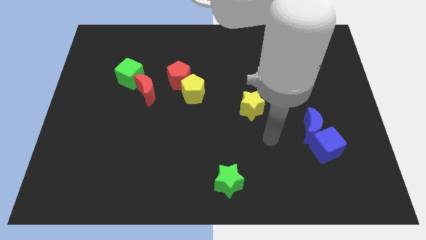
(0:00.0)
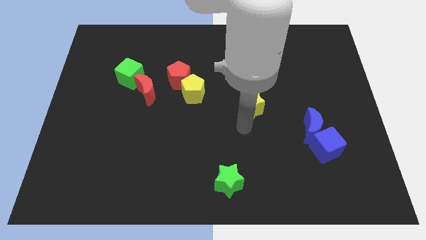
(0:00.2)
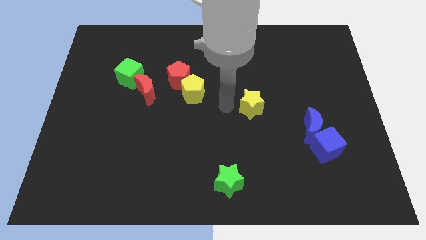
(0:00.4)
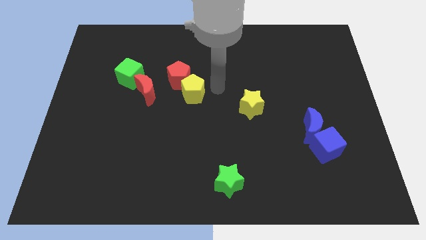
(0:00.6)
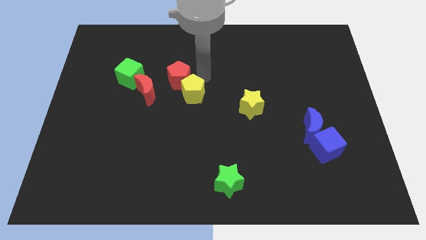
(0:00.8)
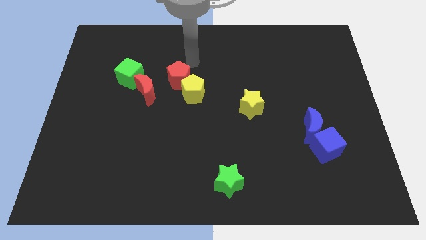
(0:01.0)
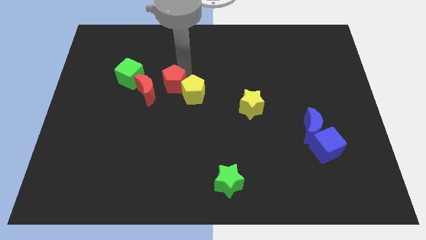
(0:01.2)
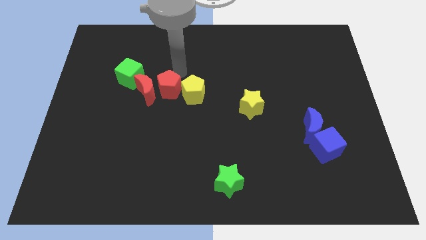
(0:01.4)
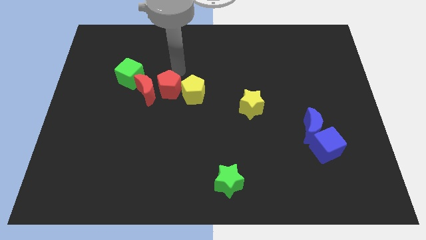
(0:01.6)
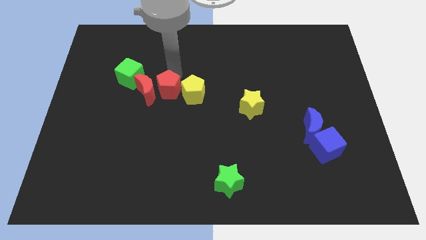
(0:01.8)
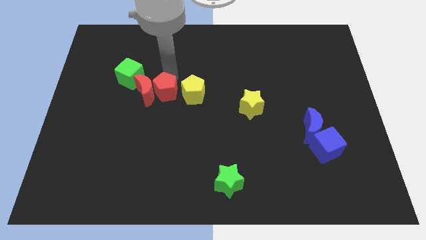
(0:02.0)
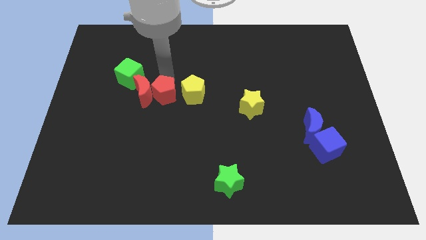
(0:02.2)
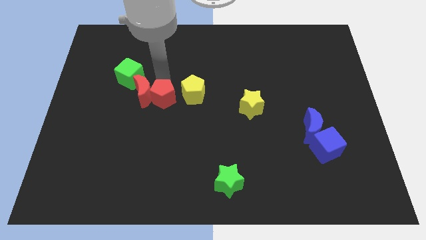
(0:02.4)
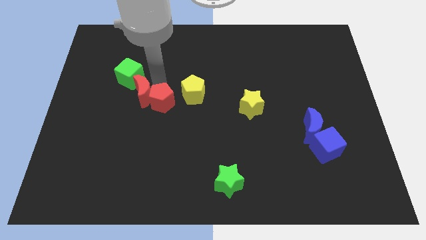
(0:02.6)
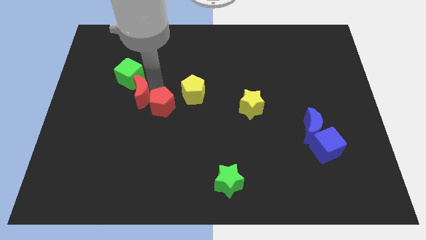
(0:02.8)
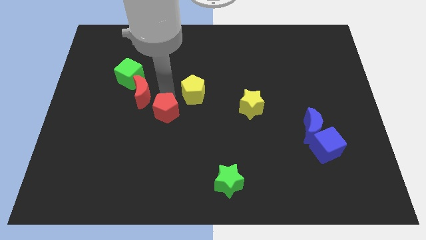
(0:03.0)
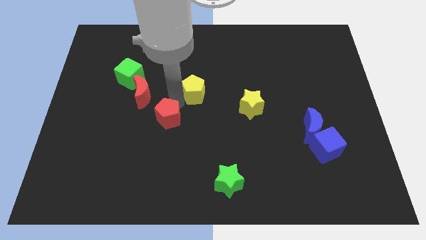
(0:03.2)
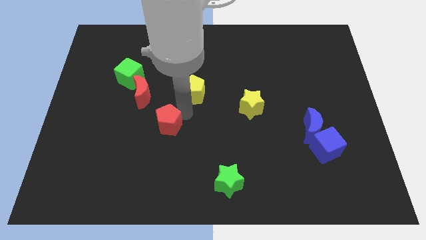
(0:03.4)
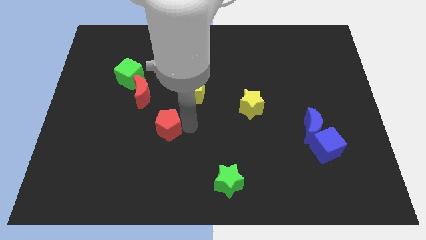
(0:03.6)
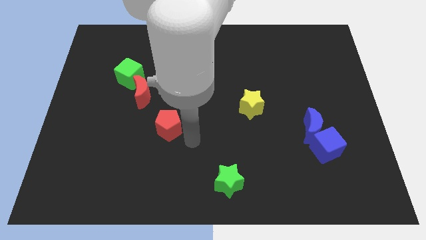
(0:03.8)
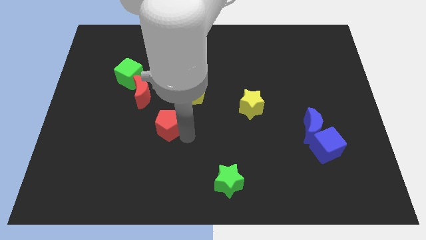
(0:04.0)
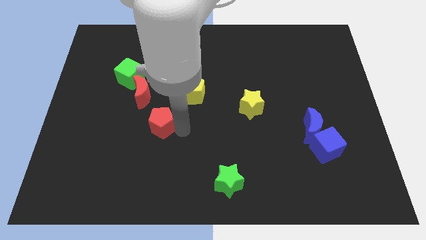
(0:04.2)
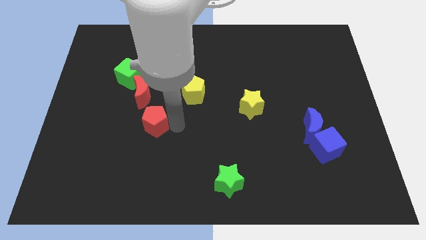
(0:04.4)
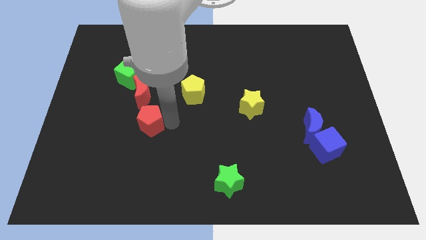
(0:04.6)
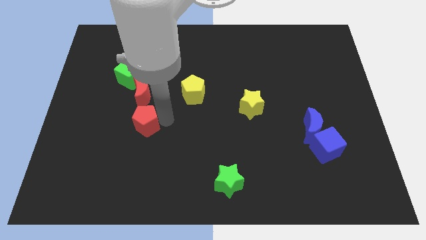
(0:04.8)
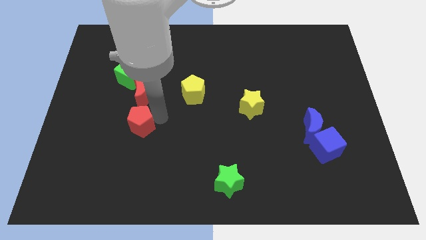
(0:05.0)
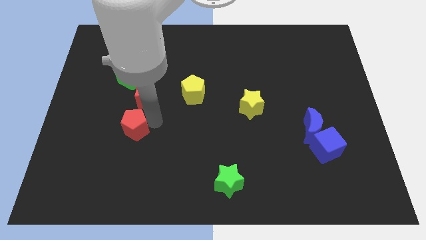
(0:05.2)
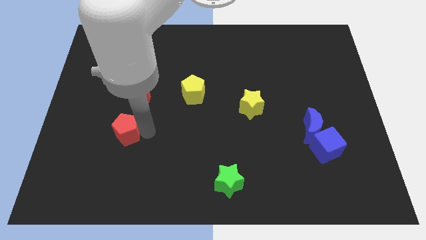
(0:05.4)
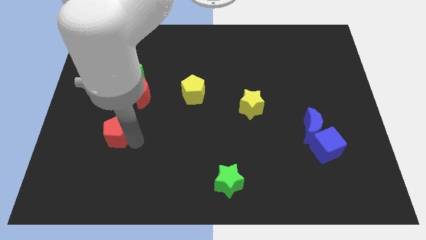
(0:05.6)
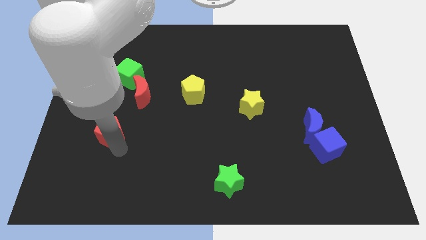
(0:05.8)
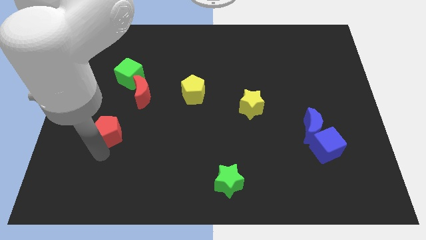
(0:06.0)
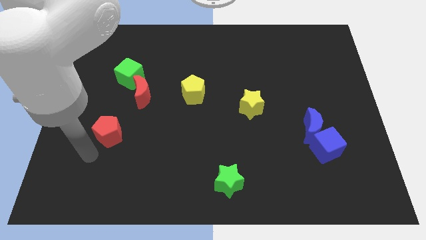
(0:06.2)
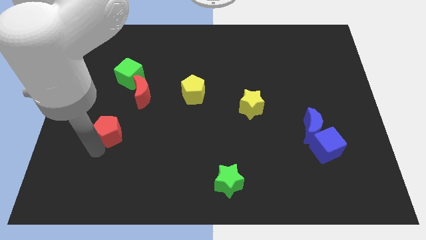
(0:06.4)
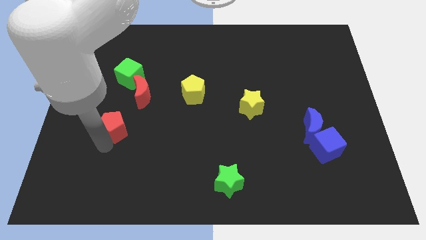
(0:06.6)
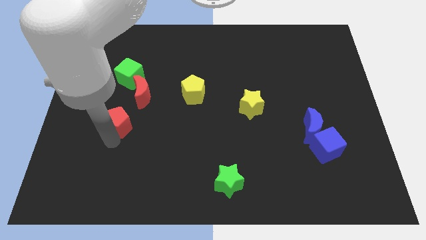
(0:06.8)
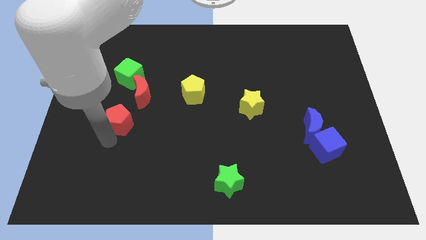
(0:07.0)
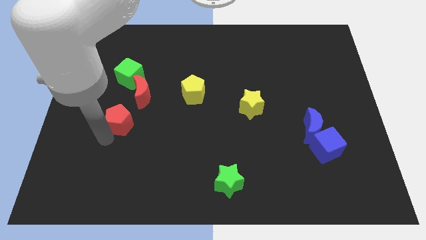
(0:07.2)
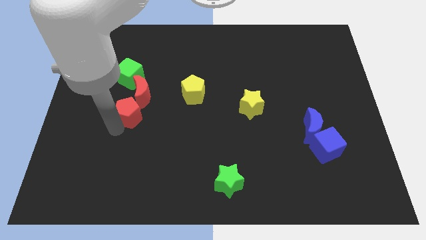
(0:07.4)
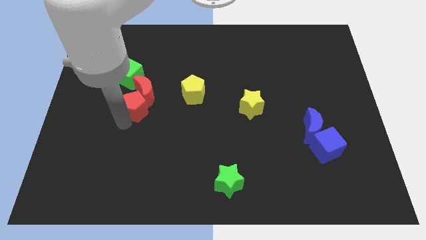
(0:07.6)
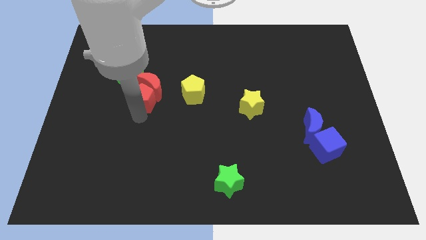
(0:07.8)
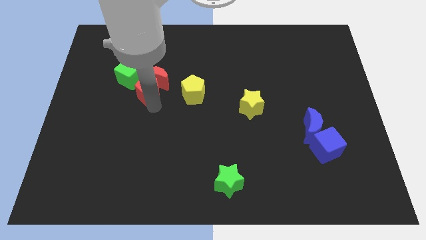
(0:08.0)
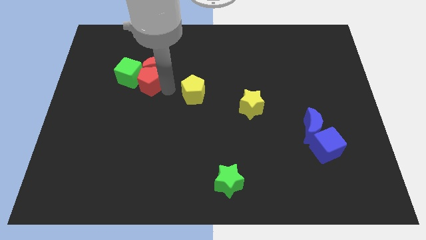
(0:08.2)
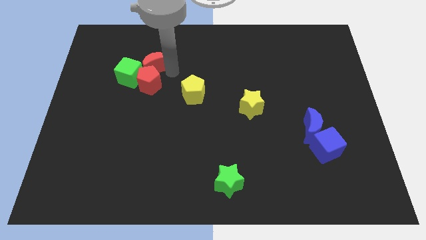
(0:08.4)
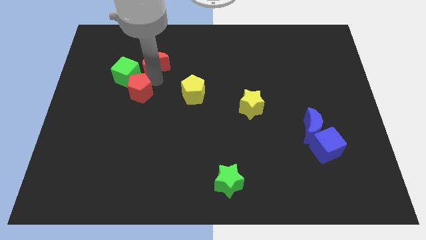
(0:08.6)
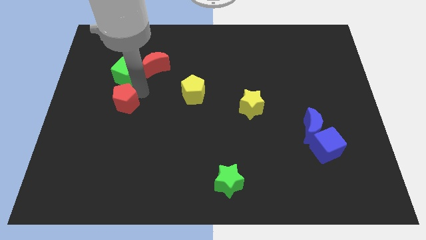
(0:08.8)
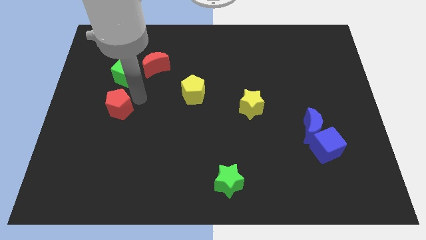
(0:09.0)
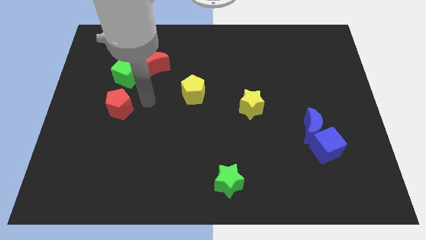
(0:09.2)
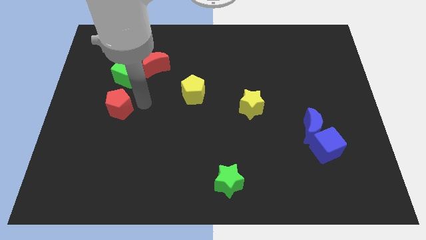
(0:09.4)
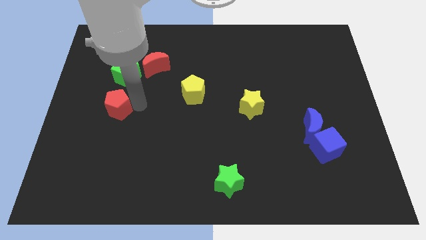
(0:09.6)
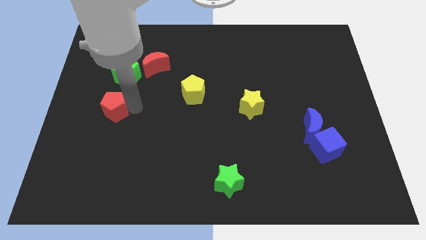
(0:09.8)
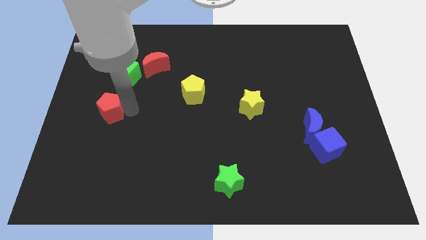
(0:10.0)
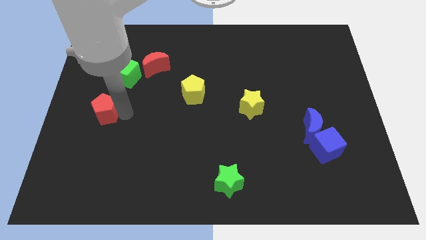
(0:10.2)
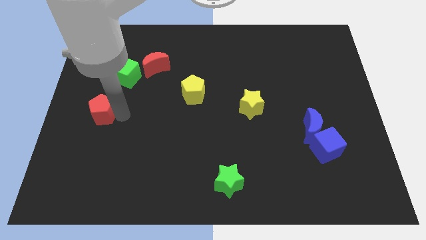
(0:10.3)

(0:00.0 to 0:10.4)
push the red pentagon to the center left

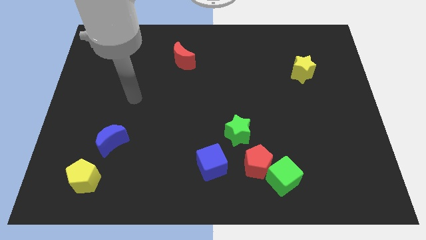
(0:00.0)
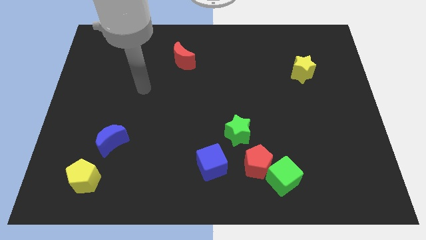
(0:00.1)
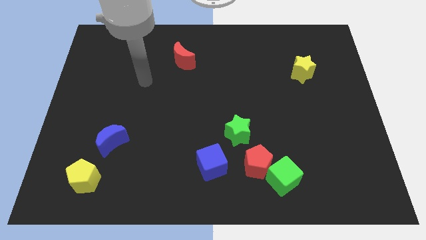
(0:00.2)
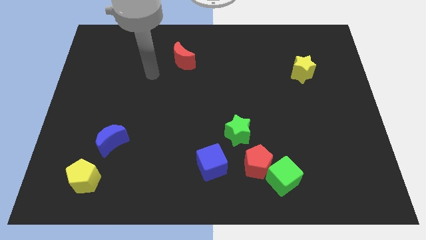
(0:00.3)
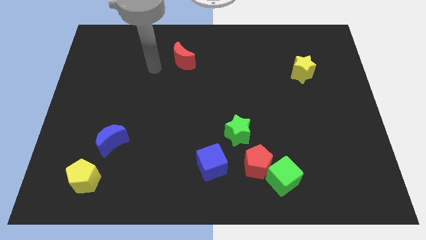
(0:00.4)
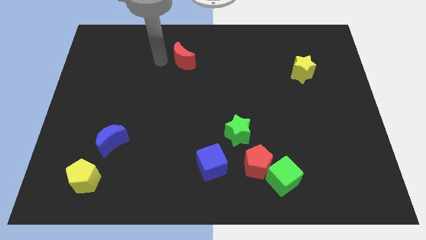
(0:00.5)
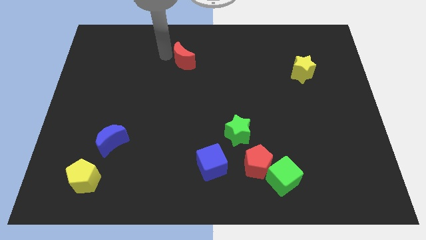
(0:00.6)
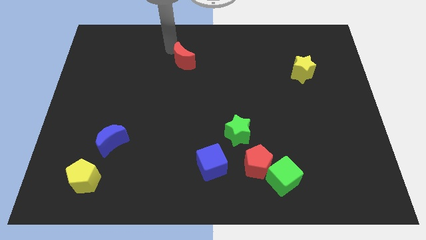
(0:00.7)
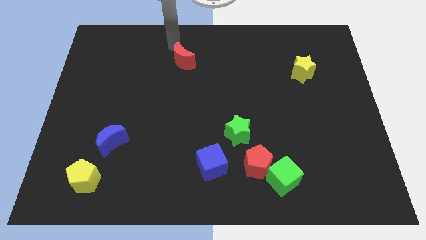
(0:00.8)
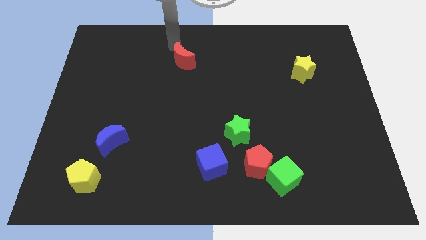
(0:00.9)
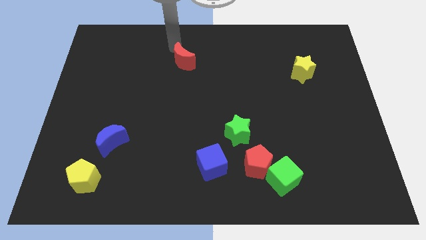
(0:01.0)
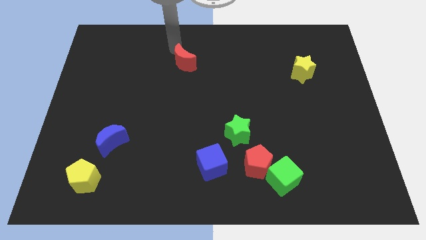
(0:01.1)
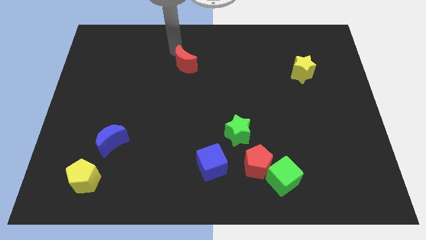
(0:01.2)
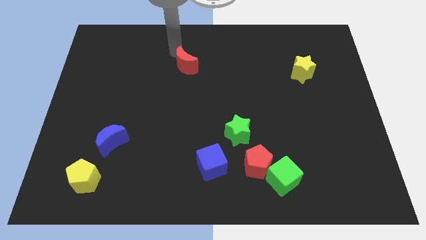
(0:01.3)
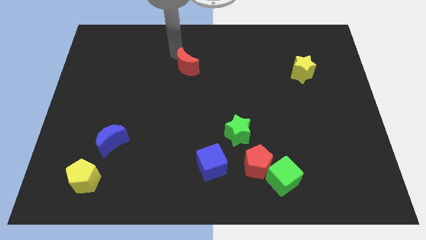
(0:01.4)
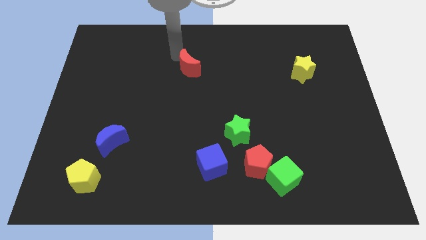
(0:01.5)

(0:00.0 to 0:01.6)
move the red moon to the middle
